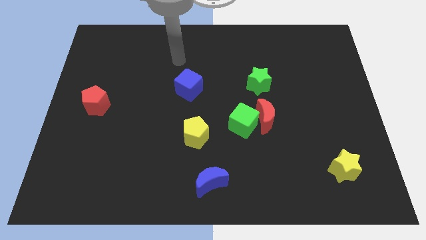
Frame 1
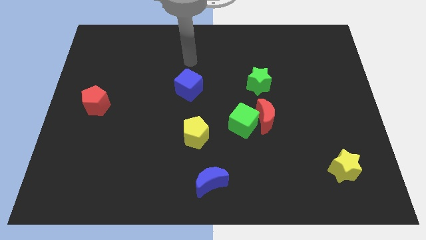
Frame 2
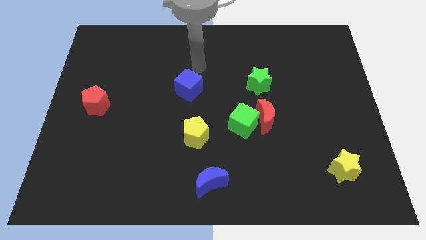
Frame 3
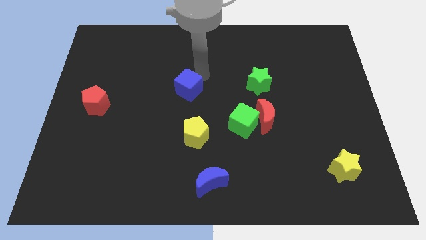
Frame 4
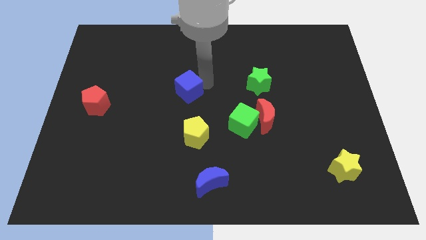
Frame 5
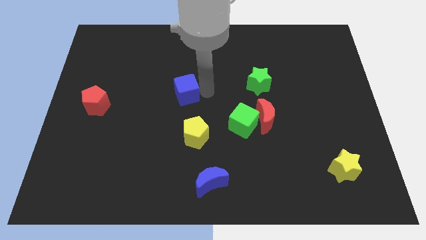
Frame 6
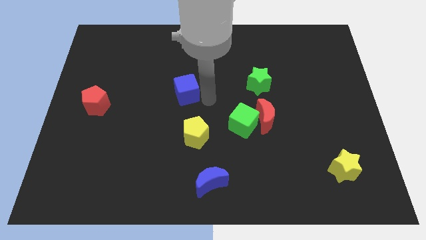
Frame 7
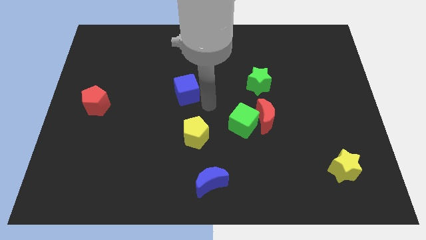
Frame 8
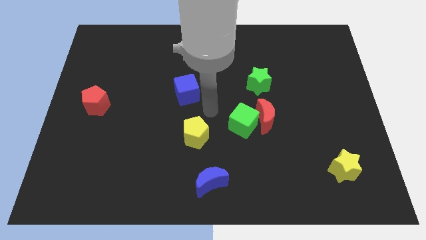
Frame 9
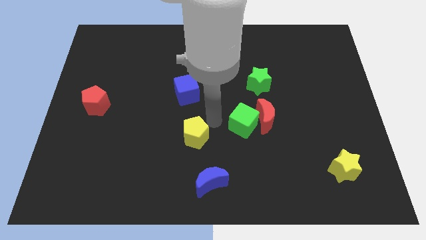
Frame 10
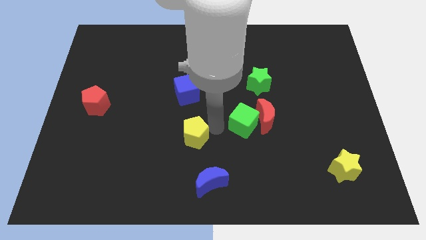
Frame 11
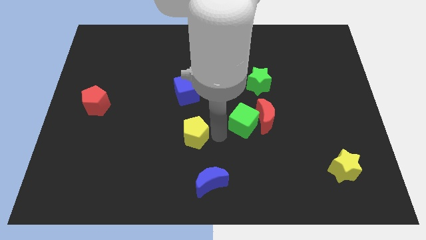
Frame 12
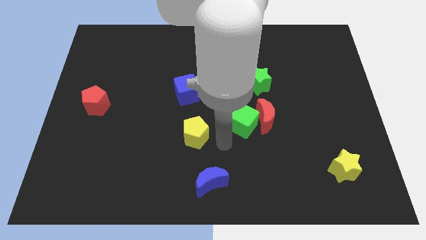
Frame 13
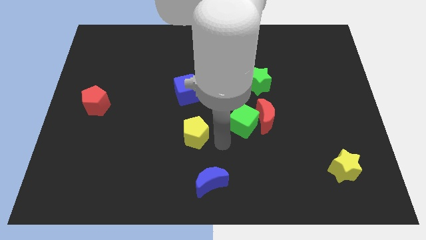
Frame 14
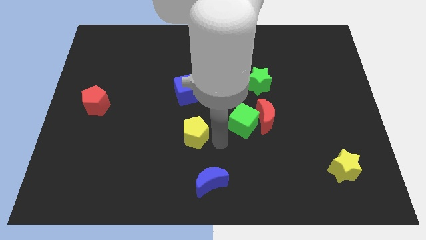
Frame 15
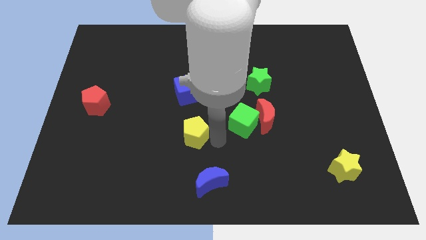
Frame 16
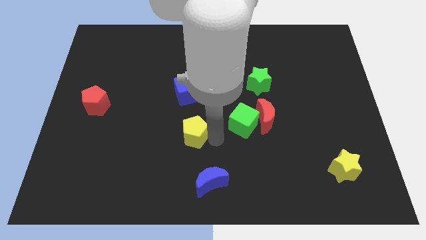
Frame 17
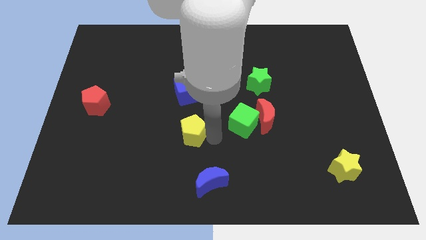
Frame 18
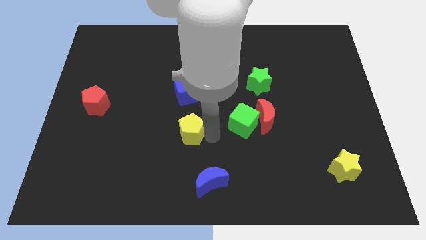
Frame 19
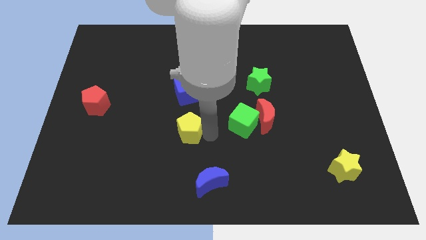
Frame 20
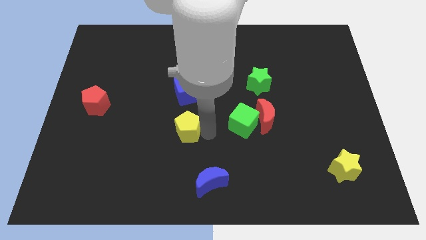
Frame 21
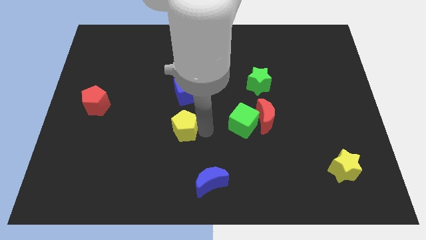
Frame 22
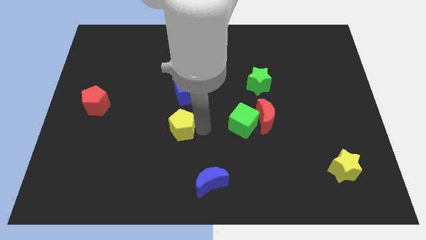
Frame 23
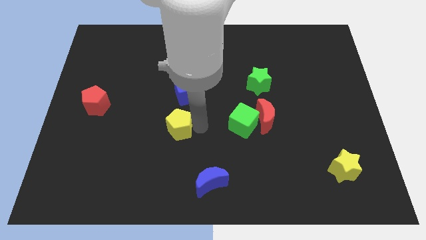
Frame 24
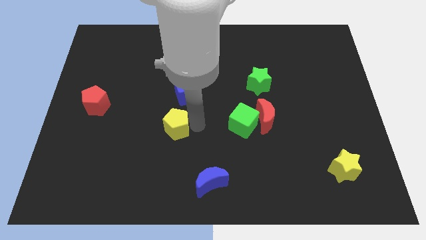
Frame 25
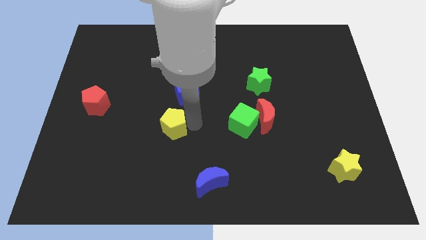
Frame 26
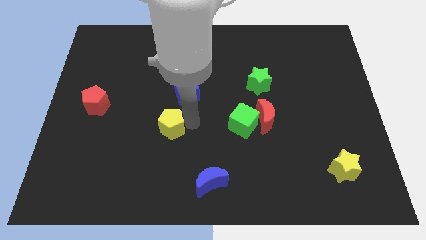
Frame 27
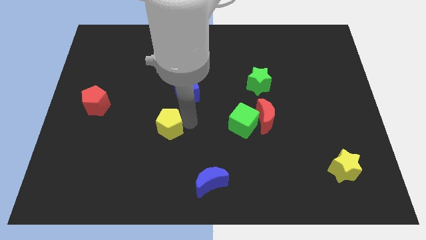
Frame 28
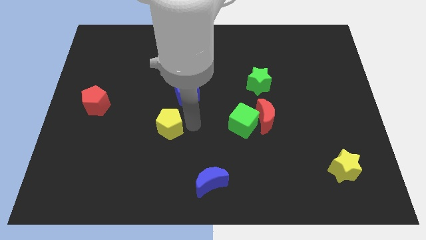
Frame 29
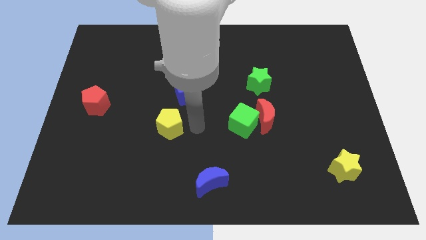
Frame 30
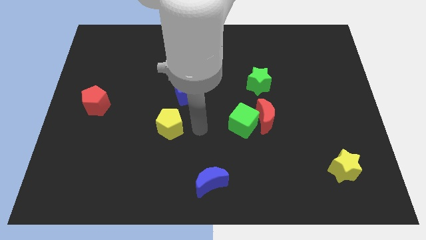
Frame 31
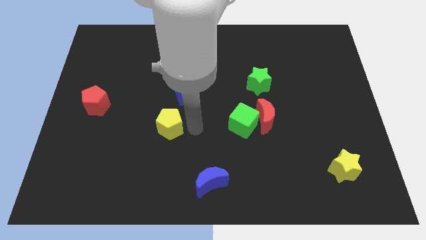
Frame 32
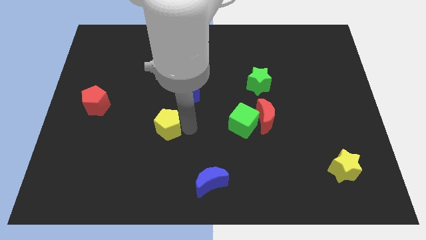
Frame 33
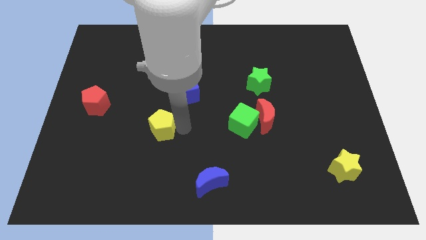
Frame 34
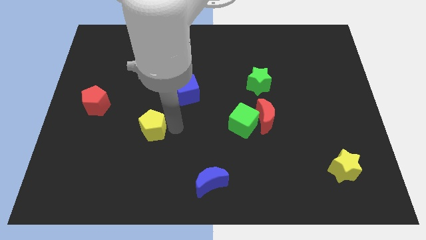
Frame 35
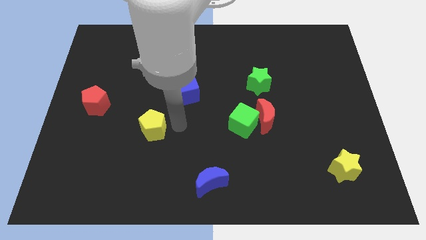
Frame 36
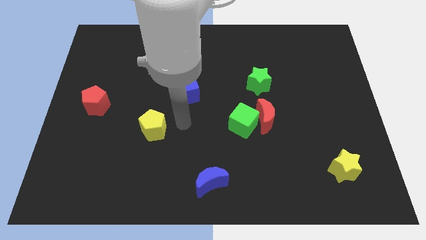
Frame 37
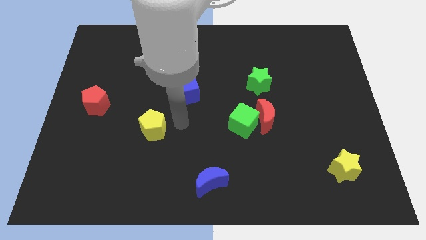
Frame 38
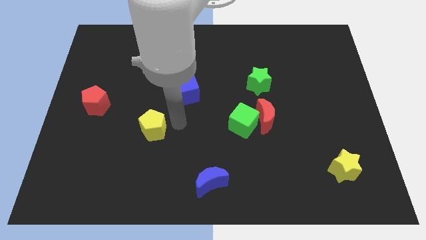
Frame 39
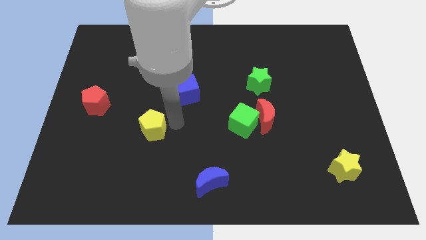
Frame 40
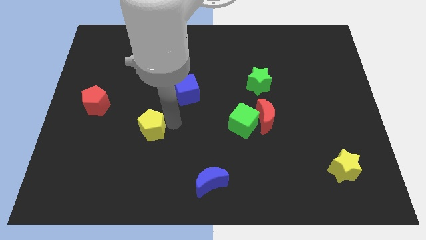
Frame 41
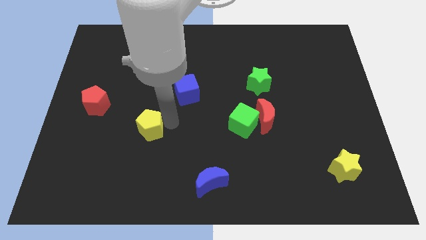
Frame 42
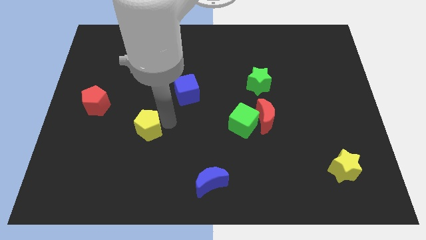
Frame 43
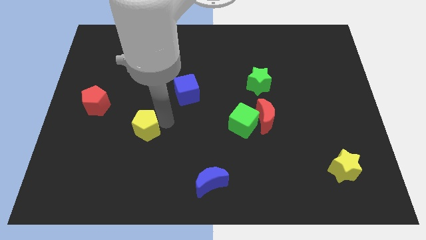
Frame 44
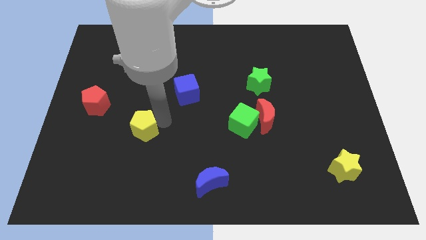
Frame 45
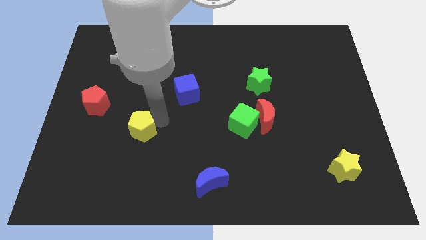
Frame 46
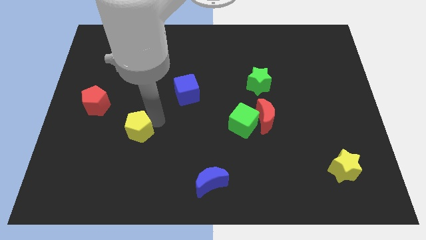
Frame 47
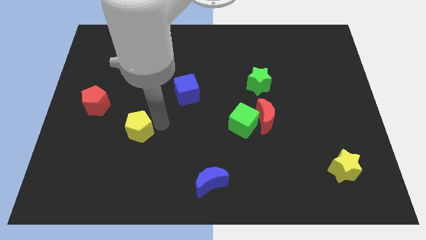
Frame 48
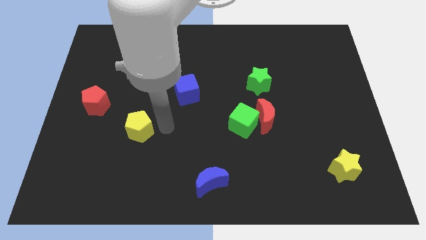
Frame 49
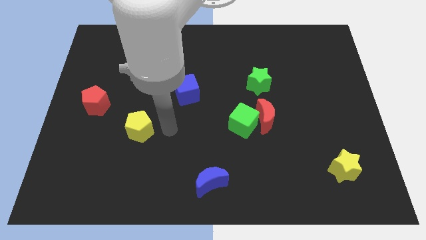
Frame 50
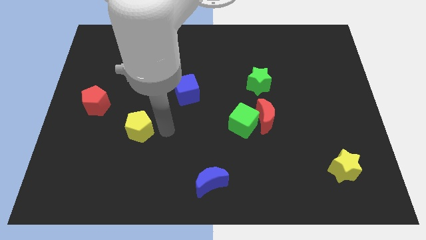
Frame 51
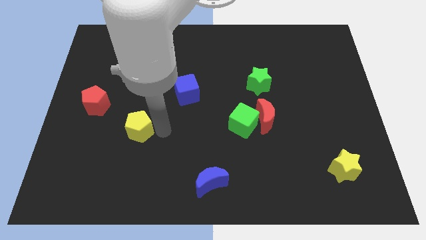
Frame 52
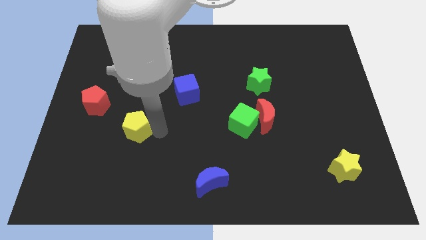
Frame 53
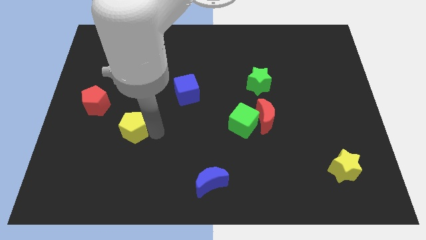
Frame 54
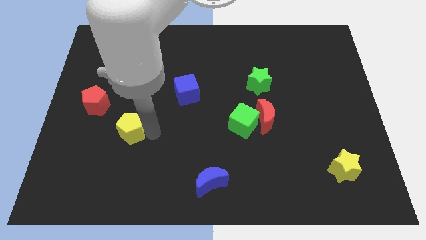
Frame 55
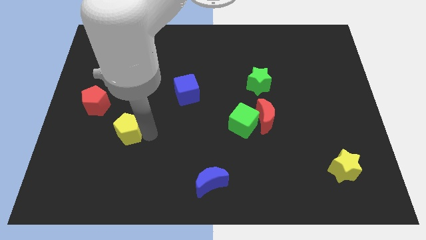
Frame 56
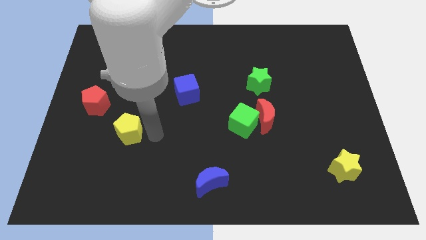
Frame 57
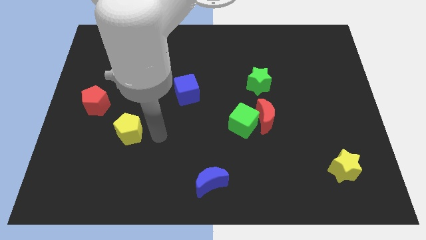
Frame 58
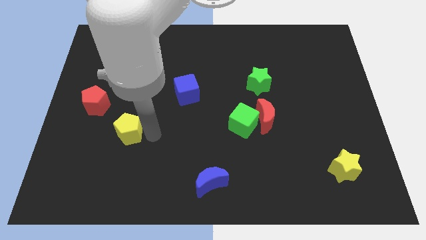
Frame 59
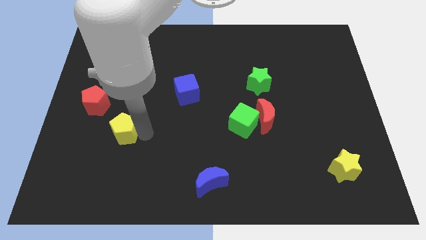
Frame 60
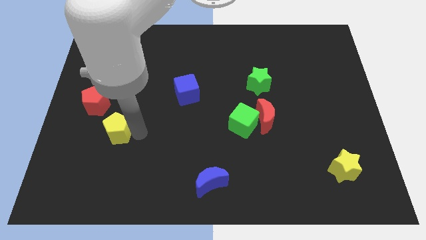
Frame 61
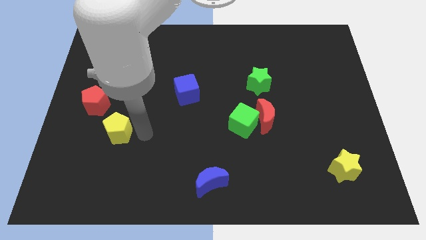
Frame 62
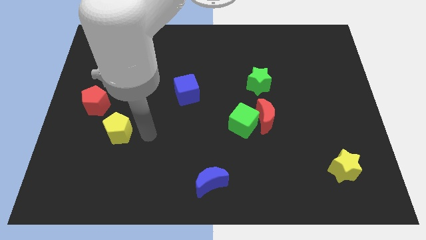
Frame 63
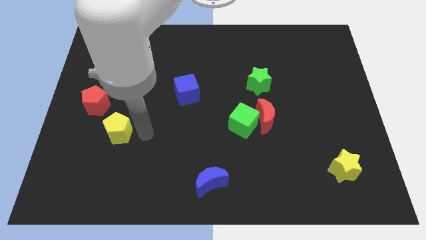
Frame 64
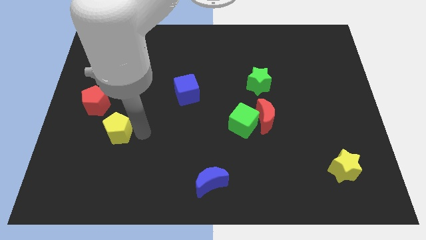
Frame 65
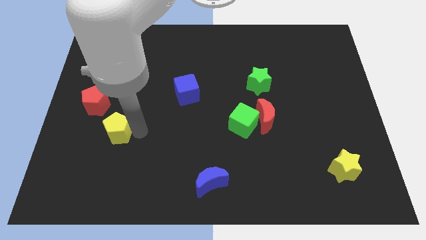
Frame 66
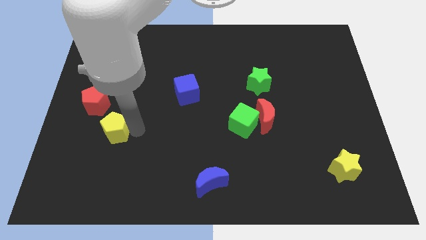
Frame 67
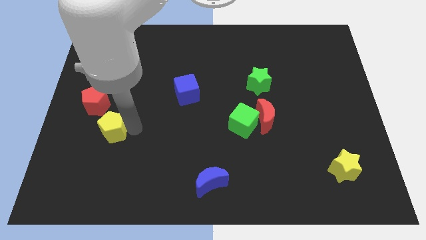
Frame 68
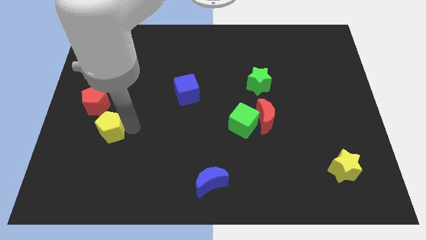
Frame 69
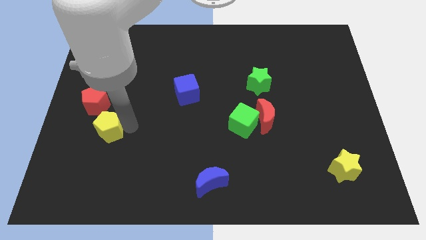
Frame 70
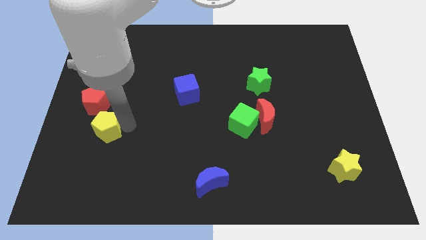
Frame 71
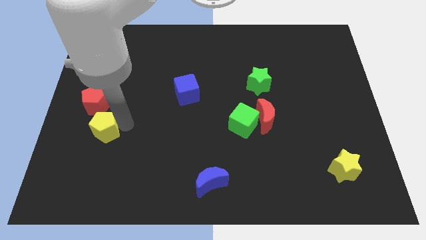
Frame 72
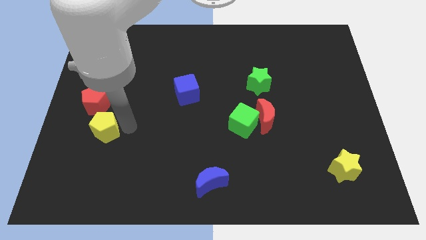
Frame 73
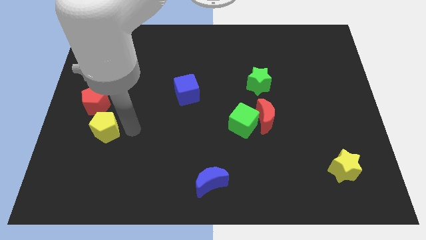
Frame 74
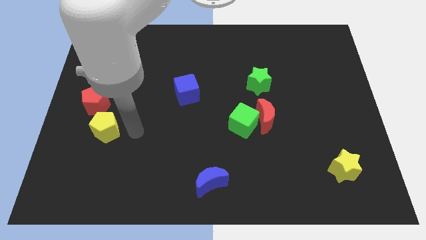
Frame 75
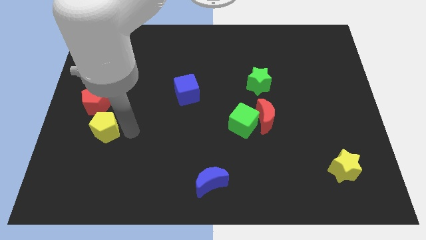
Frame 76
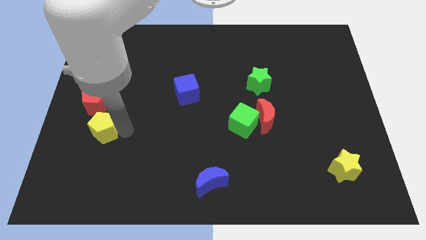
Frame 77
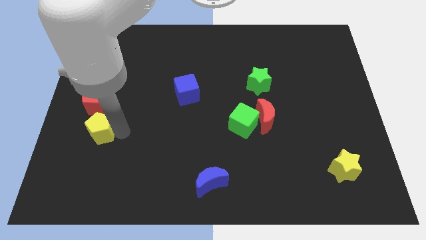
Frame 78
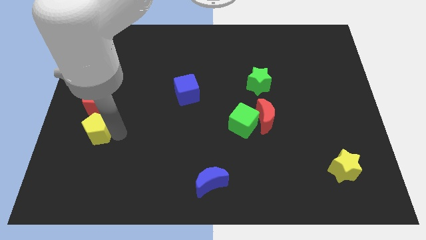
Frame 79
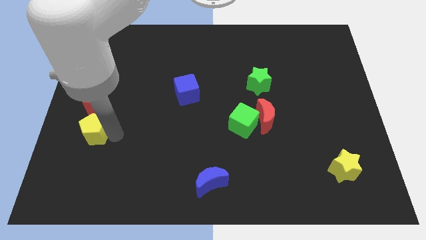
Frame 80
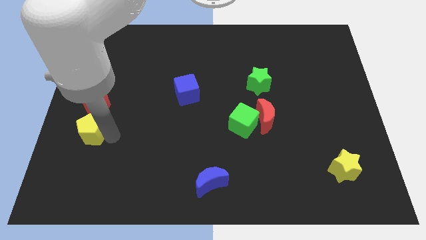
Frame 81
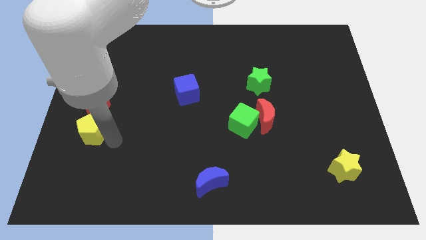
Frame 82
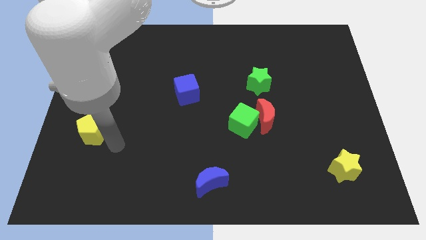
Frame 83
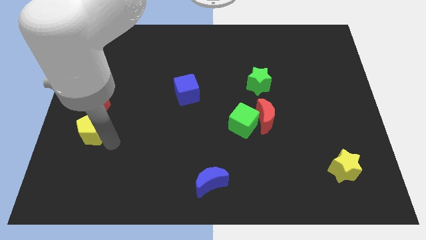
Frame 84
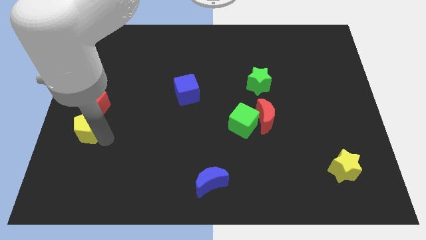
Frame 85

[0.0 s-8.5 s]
push the yellow pentagon to the center left
